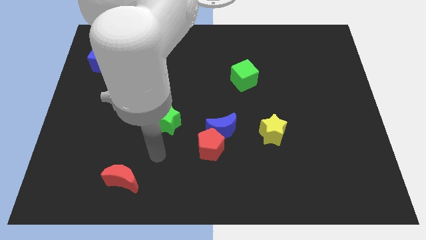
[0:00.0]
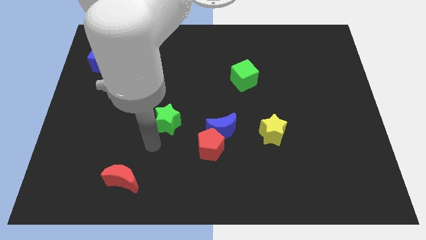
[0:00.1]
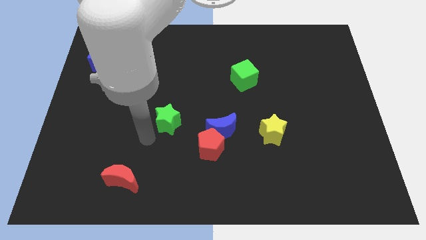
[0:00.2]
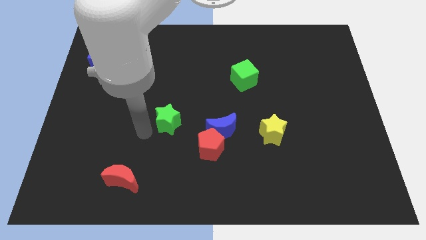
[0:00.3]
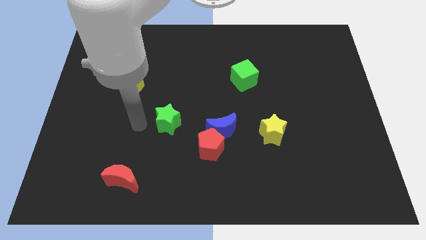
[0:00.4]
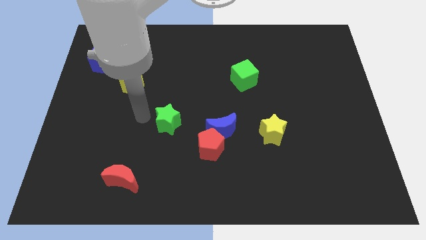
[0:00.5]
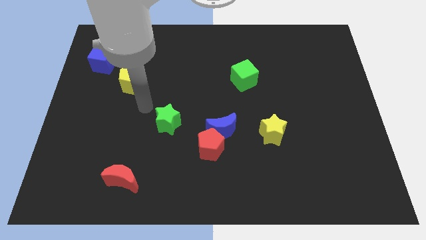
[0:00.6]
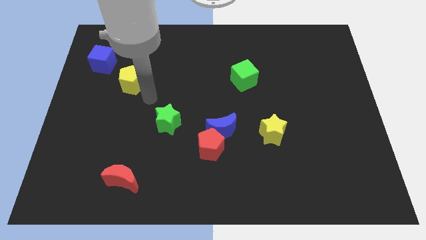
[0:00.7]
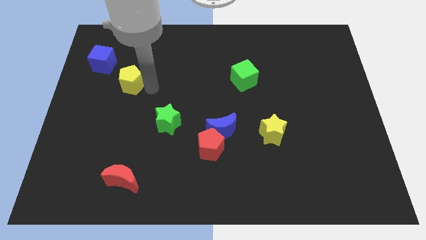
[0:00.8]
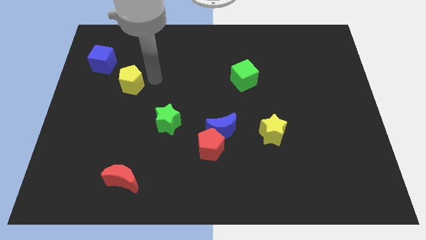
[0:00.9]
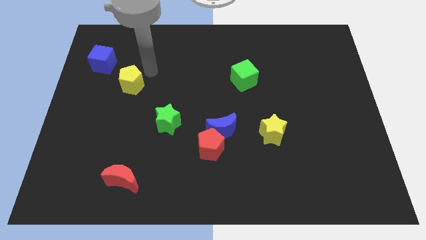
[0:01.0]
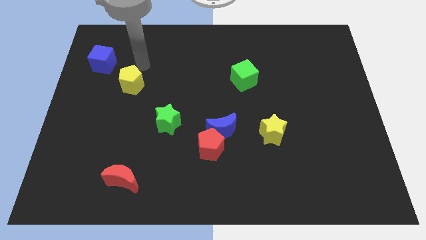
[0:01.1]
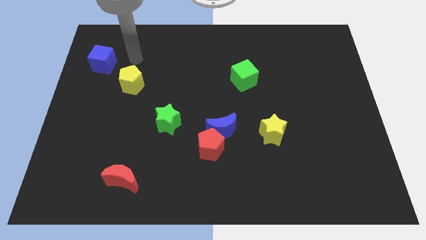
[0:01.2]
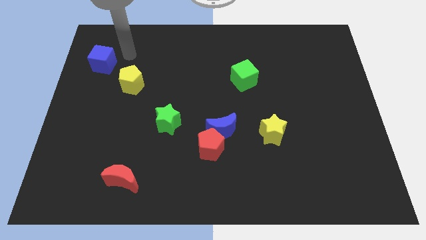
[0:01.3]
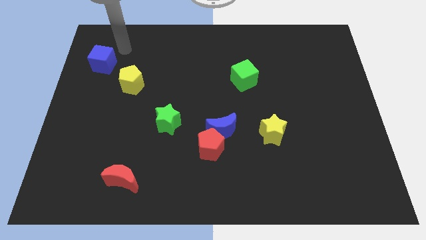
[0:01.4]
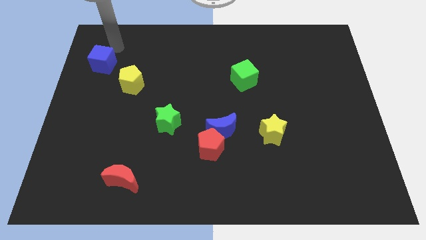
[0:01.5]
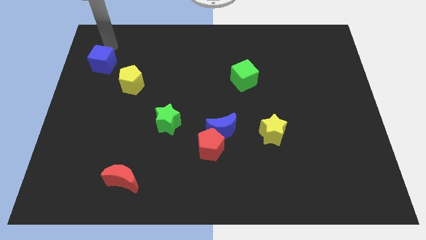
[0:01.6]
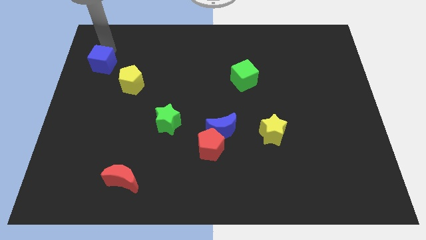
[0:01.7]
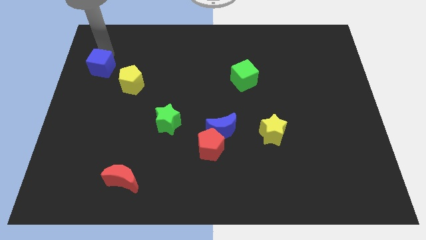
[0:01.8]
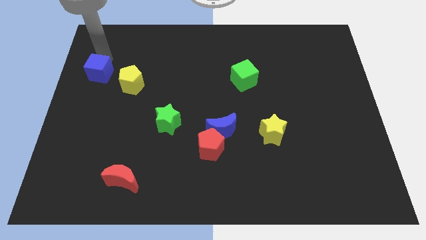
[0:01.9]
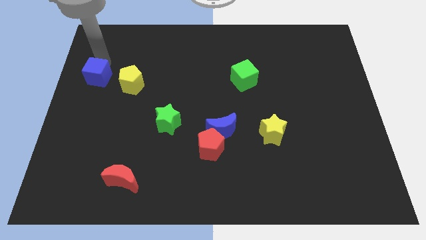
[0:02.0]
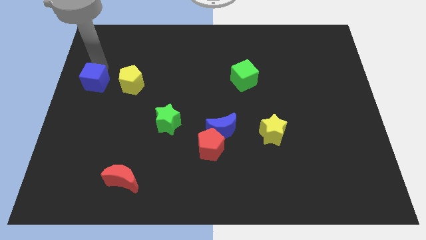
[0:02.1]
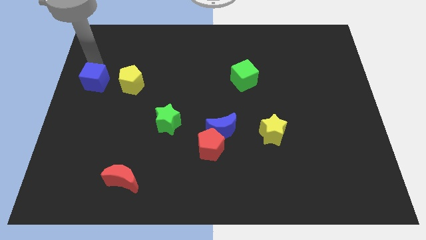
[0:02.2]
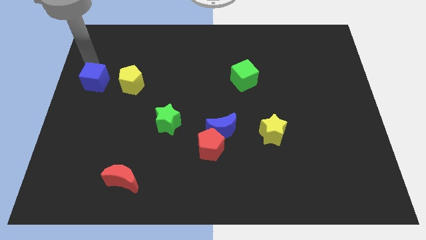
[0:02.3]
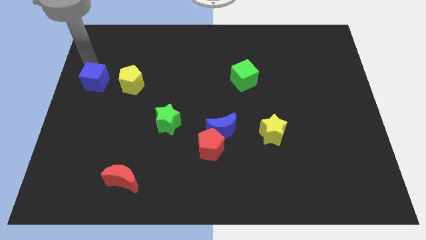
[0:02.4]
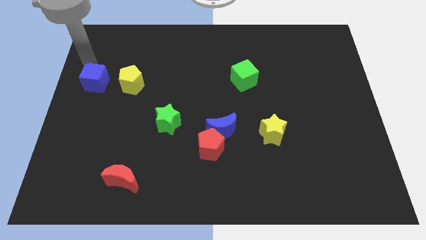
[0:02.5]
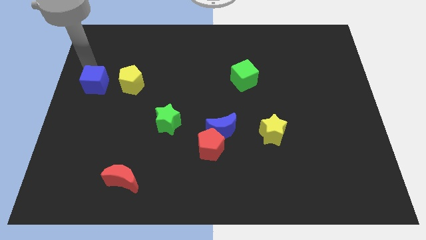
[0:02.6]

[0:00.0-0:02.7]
slightly move the blue cube down

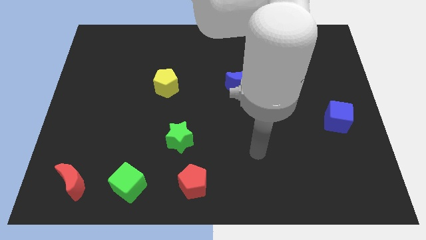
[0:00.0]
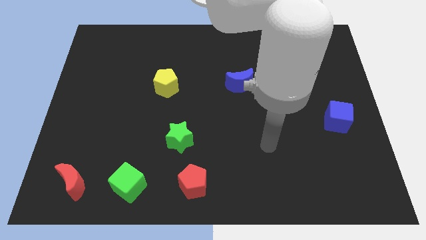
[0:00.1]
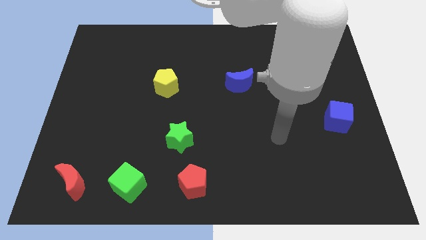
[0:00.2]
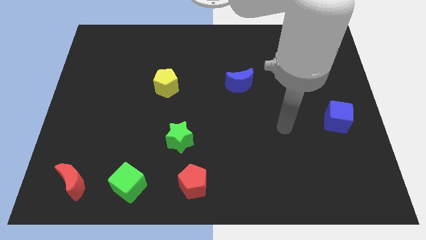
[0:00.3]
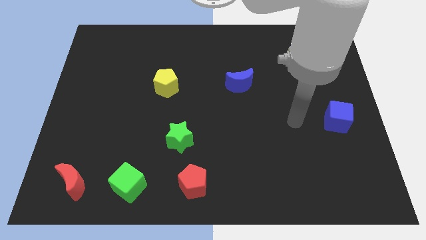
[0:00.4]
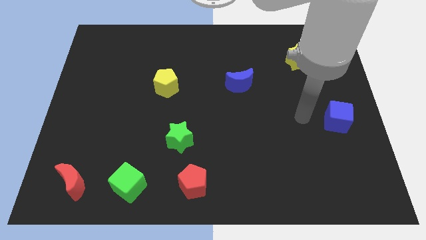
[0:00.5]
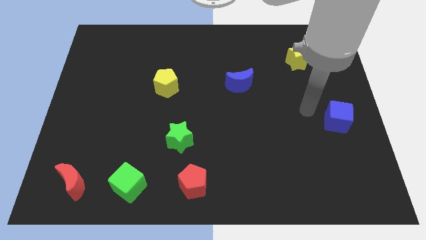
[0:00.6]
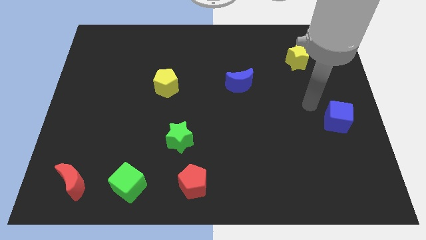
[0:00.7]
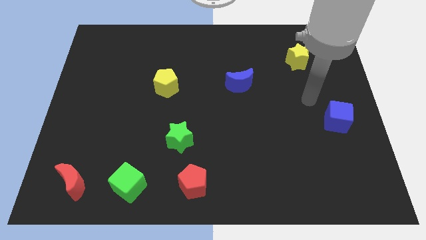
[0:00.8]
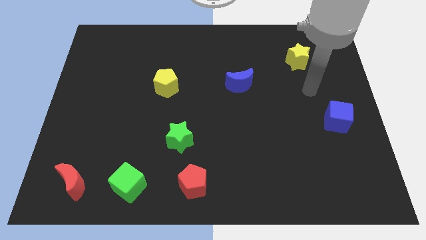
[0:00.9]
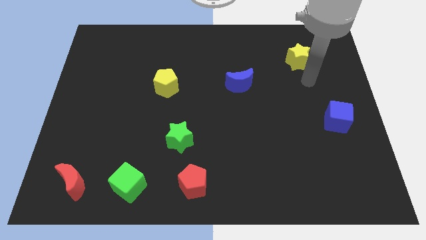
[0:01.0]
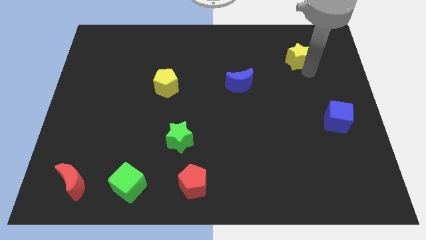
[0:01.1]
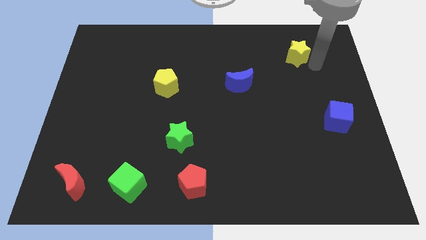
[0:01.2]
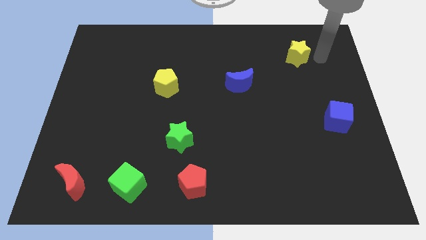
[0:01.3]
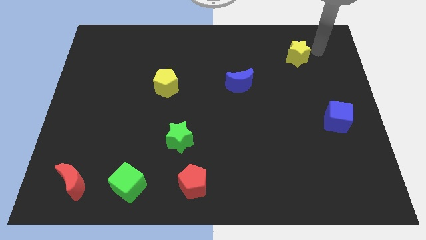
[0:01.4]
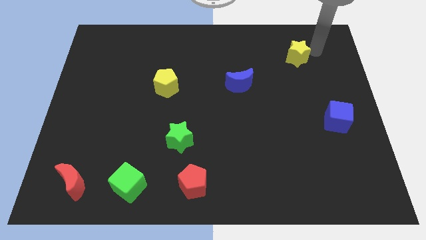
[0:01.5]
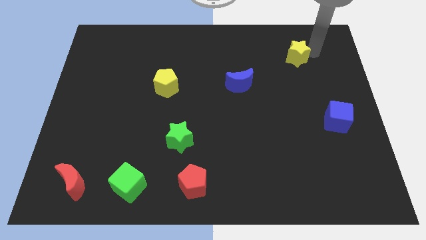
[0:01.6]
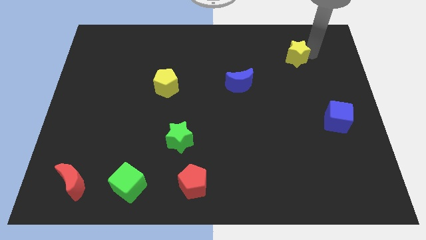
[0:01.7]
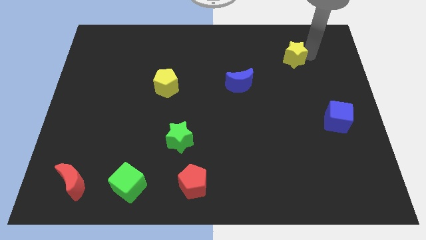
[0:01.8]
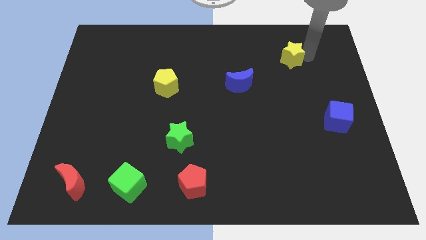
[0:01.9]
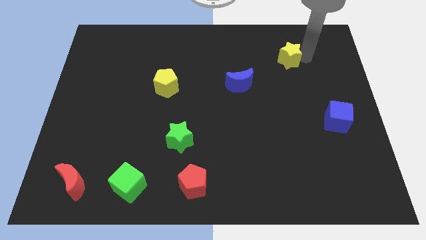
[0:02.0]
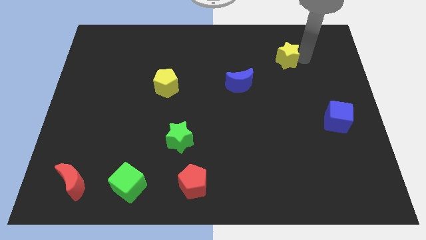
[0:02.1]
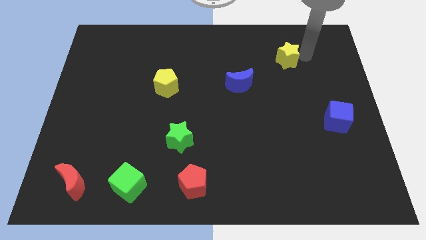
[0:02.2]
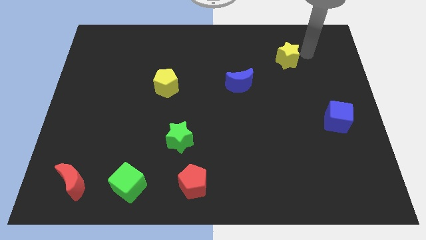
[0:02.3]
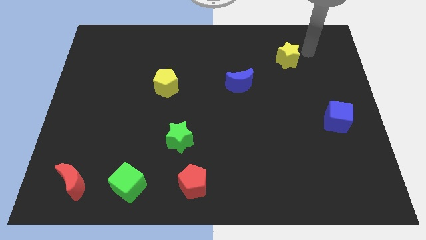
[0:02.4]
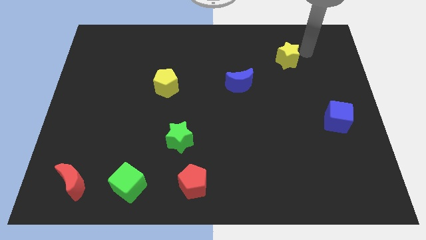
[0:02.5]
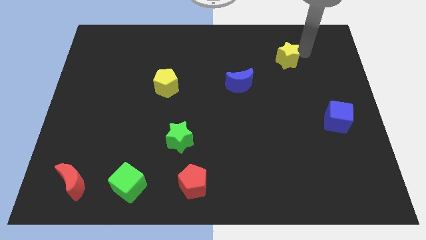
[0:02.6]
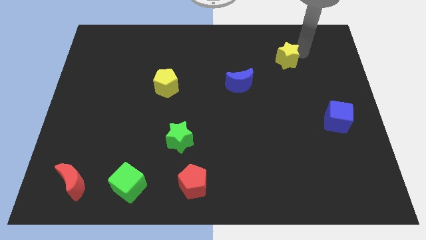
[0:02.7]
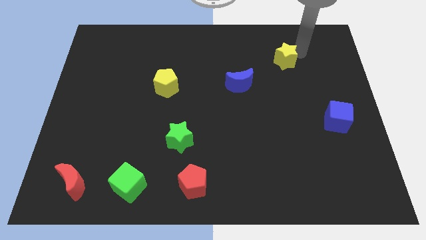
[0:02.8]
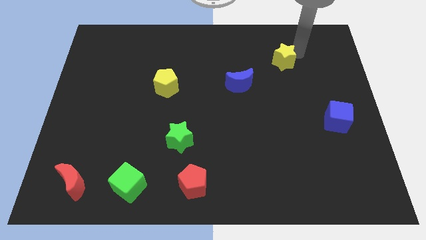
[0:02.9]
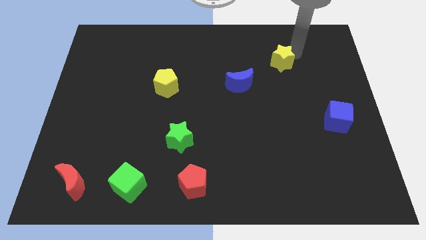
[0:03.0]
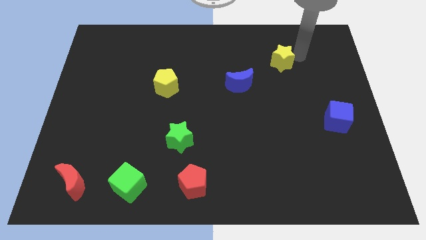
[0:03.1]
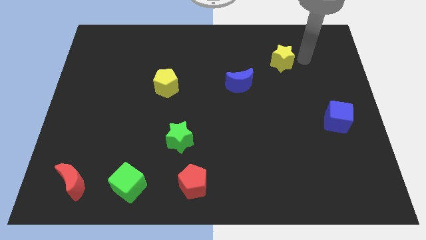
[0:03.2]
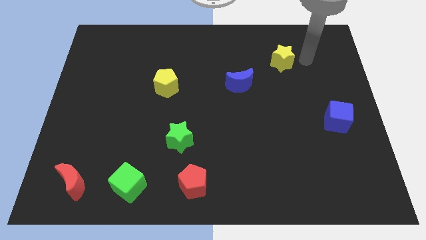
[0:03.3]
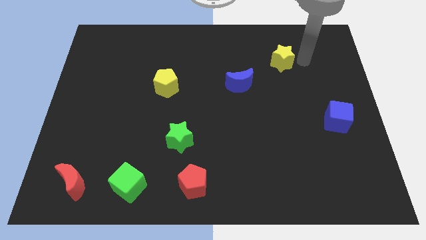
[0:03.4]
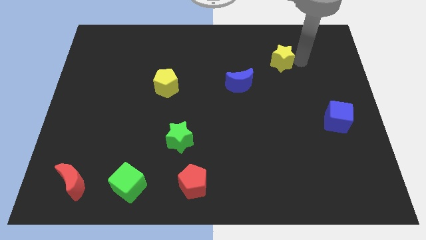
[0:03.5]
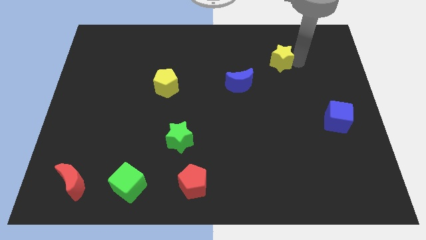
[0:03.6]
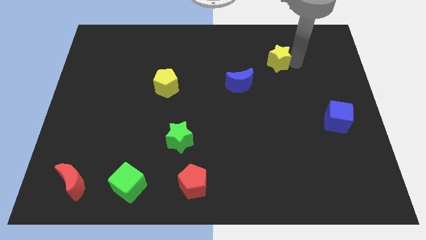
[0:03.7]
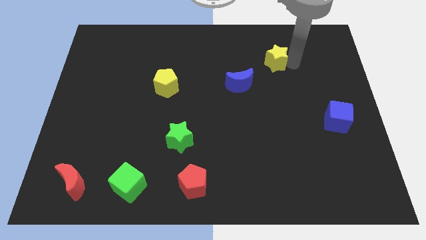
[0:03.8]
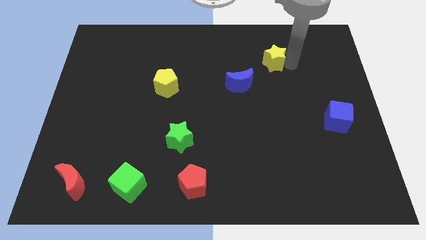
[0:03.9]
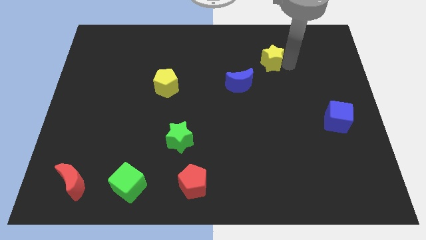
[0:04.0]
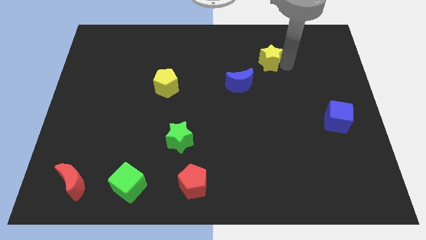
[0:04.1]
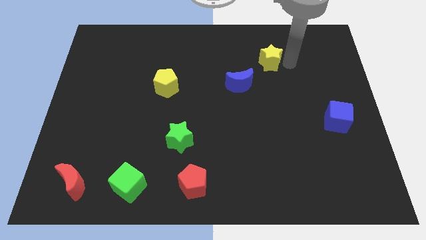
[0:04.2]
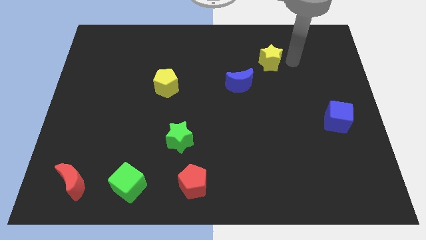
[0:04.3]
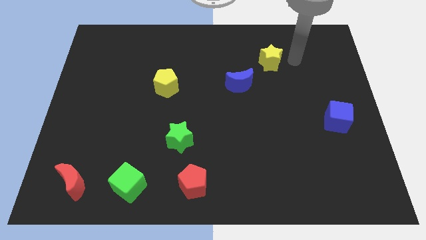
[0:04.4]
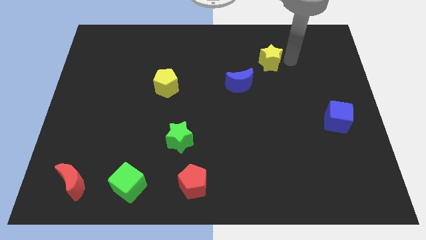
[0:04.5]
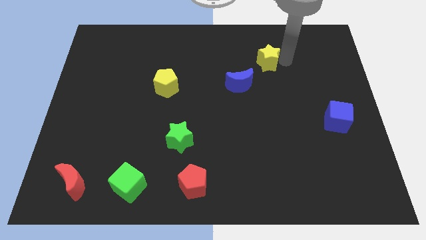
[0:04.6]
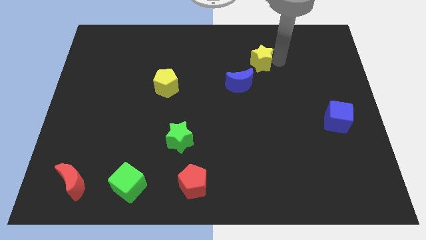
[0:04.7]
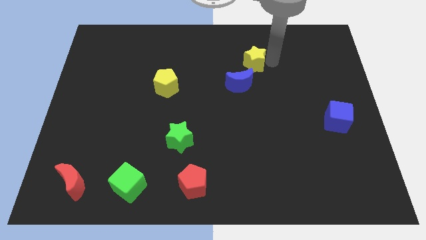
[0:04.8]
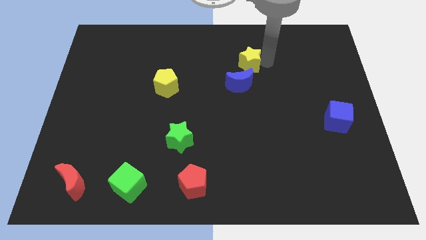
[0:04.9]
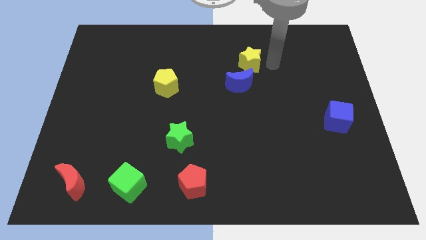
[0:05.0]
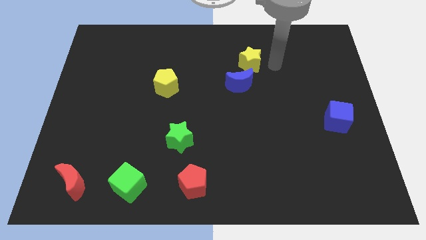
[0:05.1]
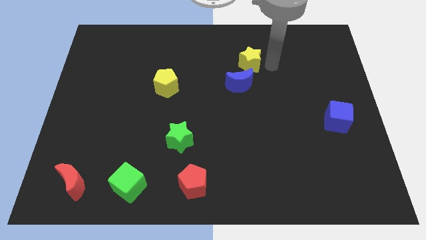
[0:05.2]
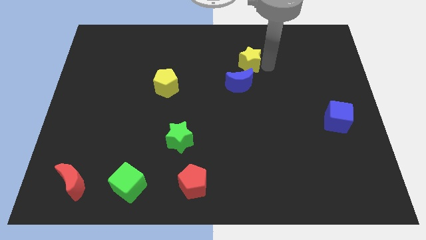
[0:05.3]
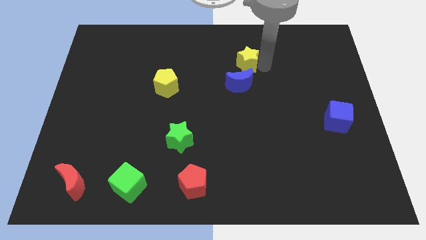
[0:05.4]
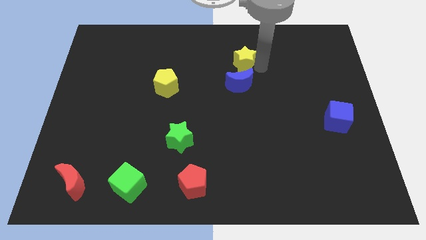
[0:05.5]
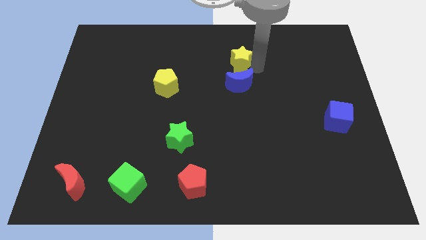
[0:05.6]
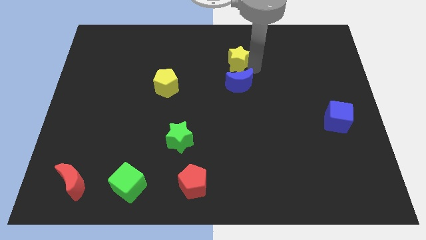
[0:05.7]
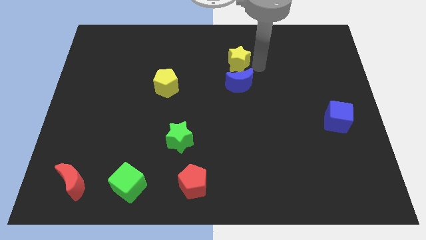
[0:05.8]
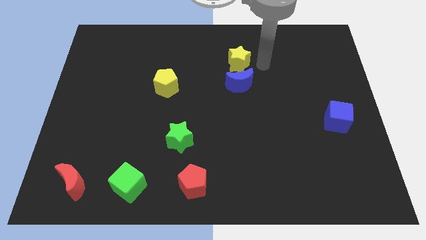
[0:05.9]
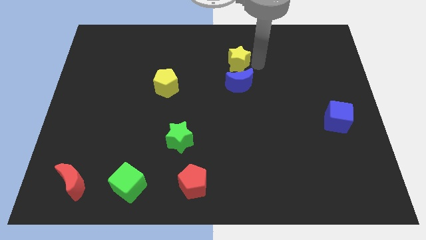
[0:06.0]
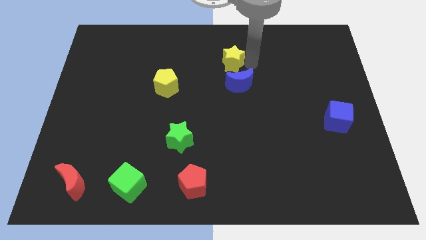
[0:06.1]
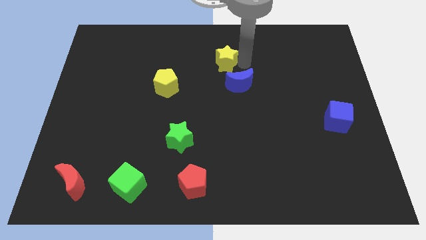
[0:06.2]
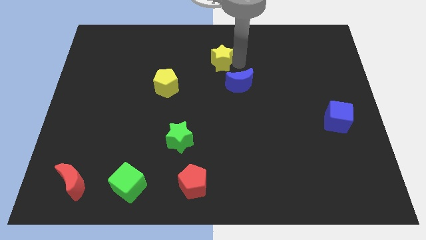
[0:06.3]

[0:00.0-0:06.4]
push the yellow star left
